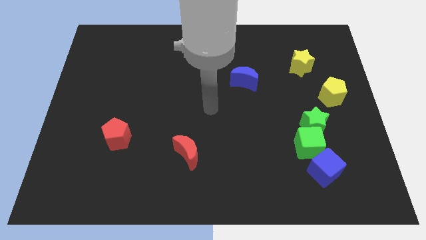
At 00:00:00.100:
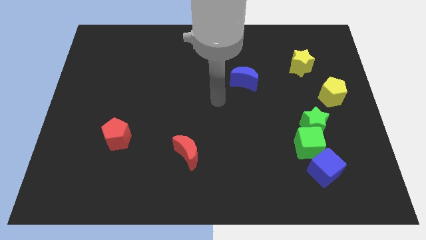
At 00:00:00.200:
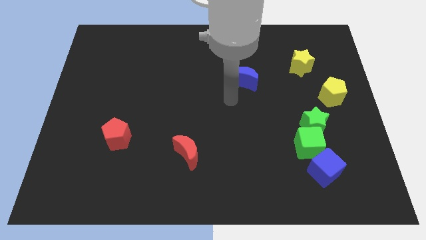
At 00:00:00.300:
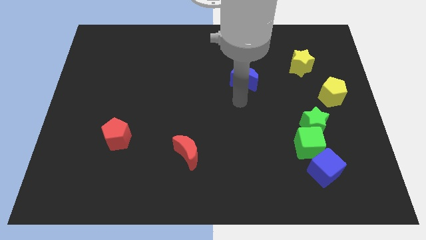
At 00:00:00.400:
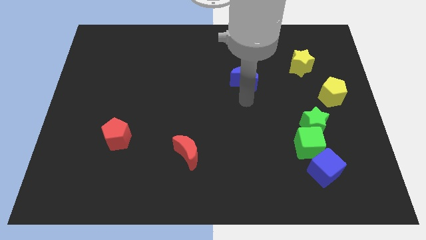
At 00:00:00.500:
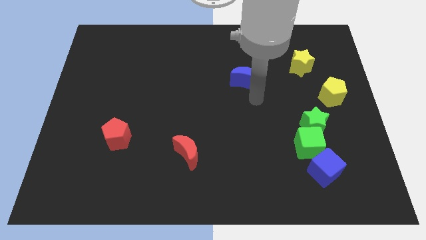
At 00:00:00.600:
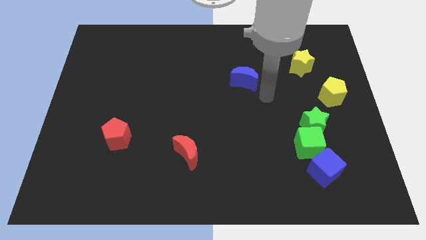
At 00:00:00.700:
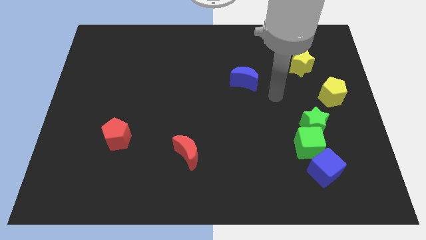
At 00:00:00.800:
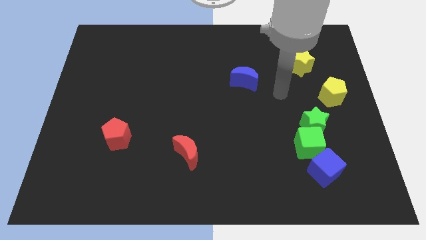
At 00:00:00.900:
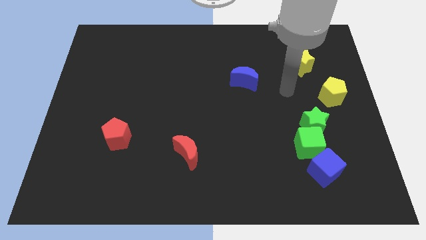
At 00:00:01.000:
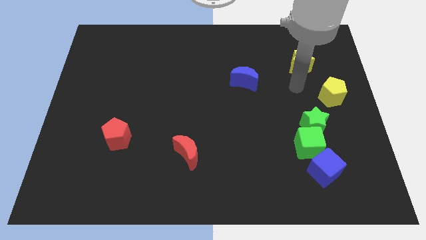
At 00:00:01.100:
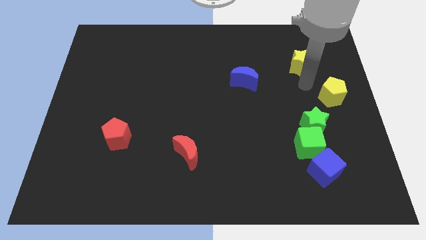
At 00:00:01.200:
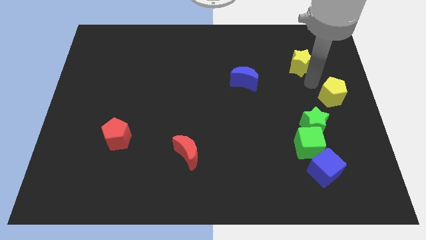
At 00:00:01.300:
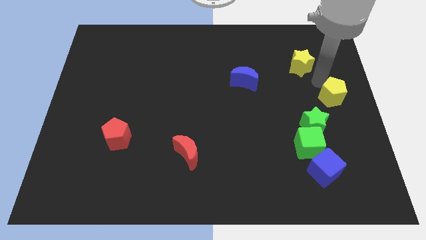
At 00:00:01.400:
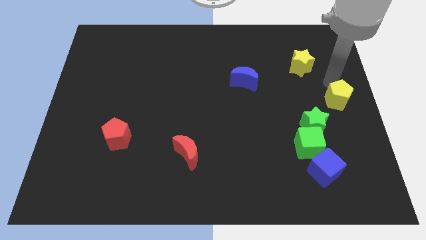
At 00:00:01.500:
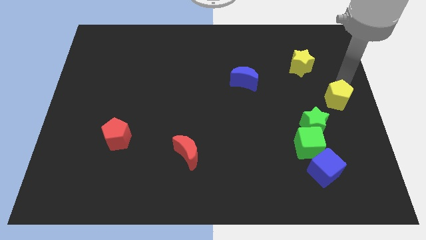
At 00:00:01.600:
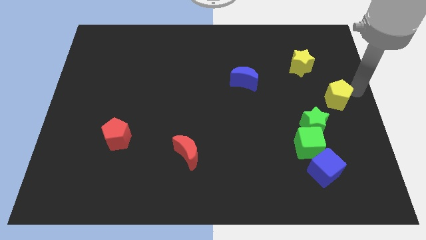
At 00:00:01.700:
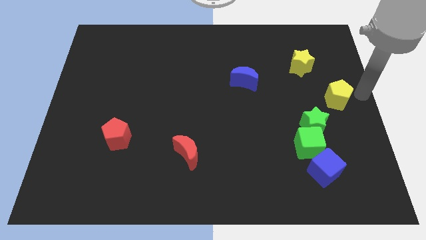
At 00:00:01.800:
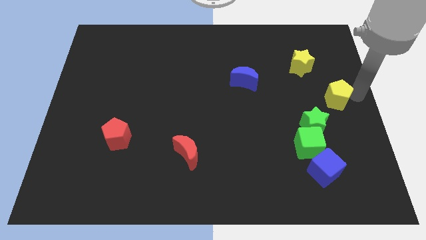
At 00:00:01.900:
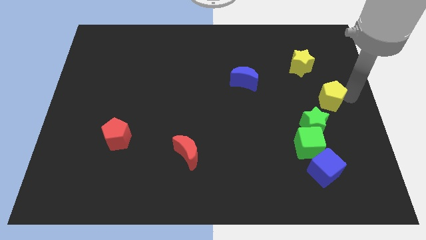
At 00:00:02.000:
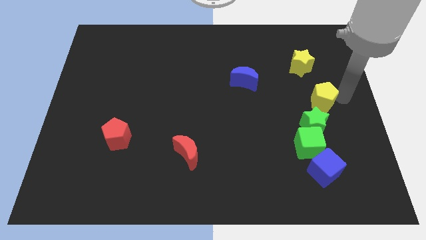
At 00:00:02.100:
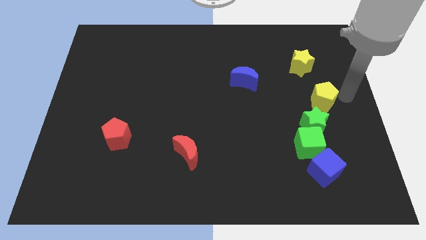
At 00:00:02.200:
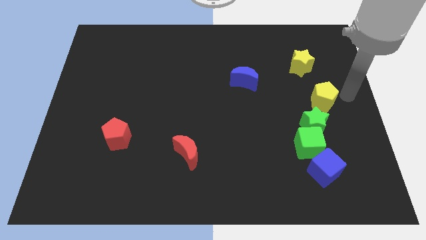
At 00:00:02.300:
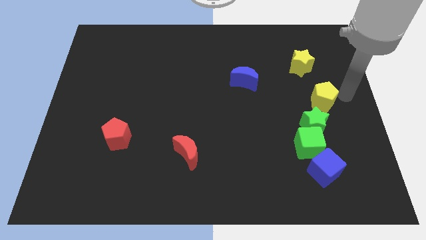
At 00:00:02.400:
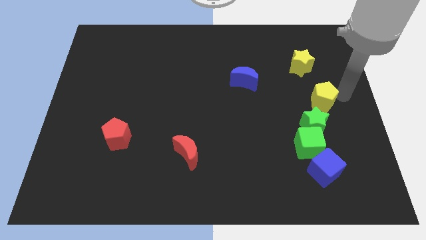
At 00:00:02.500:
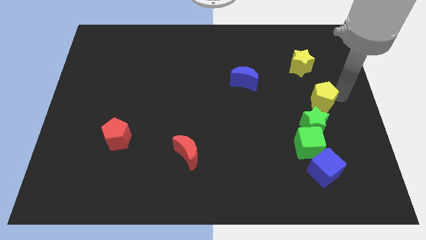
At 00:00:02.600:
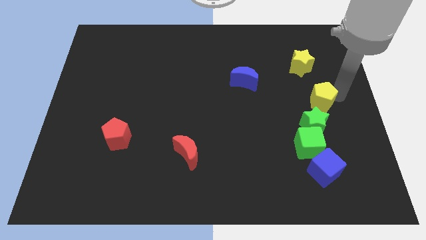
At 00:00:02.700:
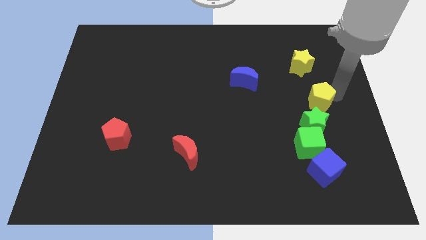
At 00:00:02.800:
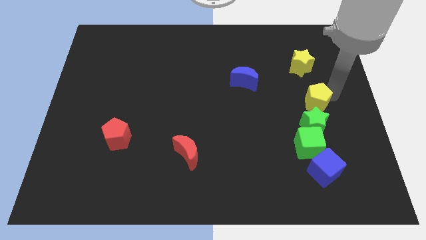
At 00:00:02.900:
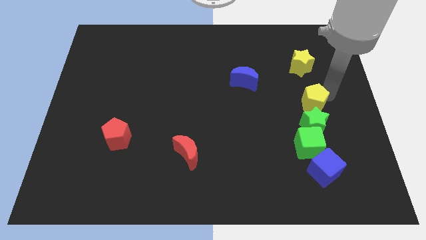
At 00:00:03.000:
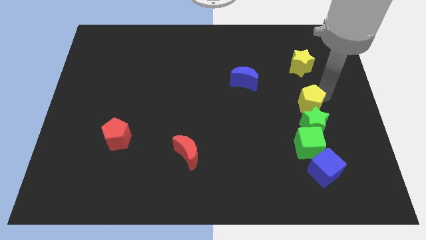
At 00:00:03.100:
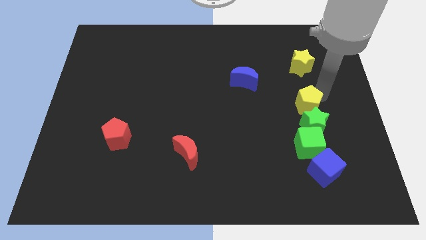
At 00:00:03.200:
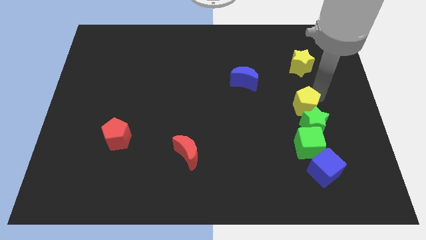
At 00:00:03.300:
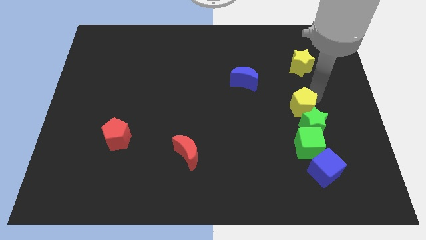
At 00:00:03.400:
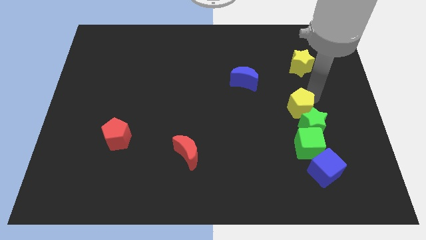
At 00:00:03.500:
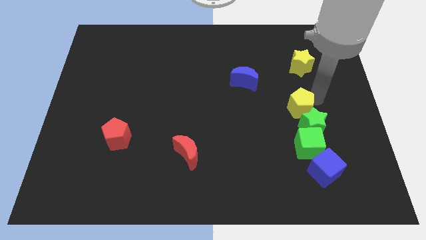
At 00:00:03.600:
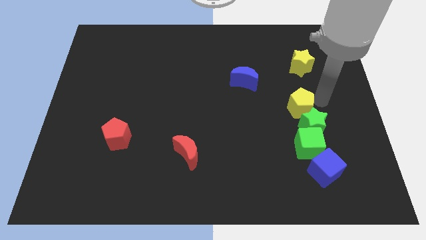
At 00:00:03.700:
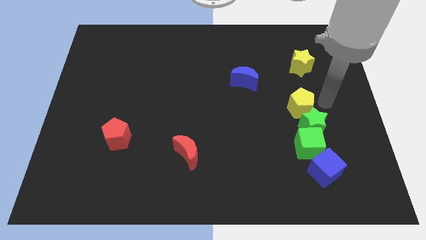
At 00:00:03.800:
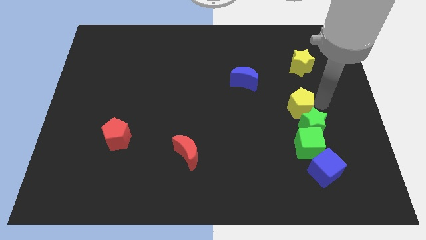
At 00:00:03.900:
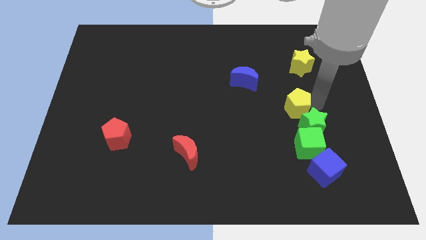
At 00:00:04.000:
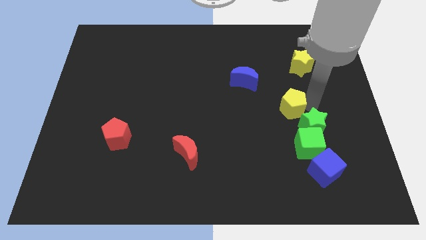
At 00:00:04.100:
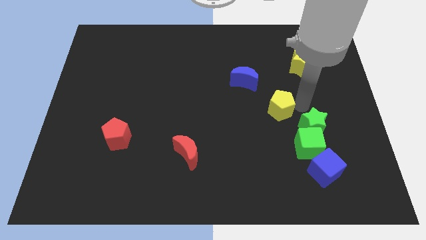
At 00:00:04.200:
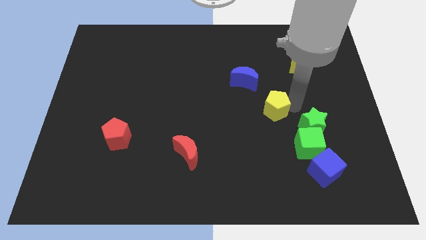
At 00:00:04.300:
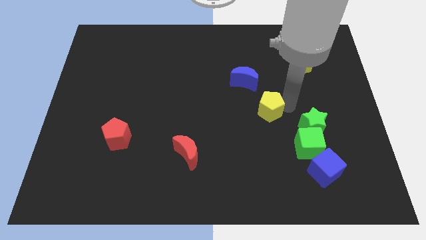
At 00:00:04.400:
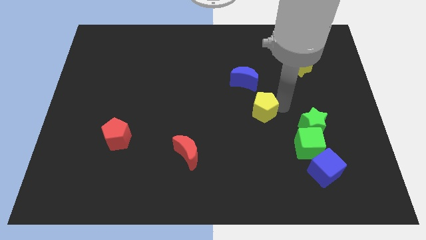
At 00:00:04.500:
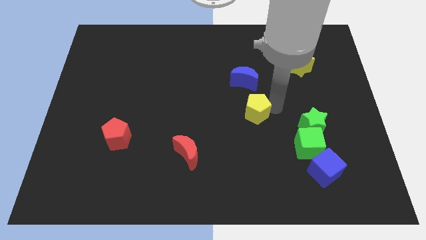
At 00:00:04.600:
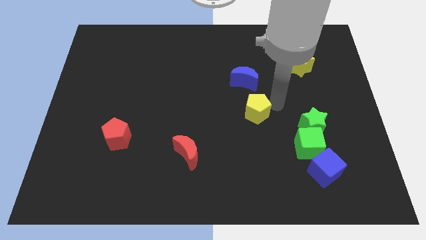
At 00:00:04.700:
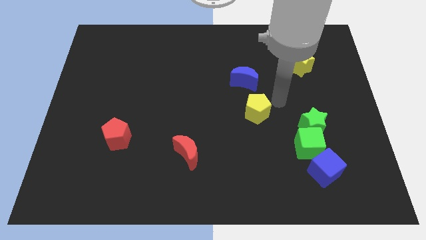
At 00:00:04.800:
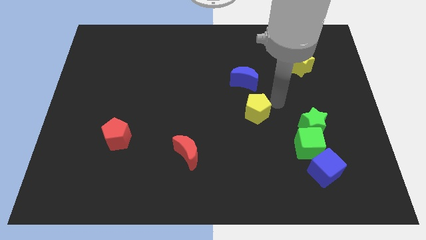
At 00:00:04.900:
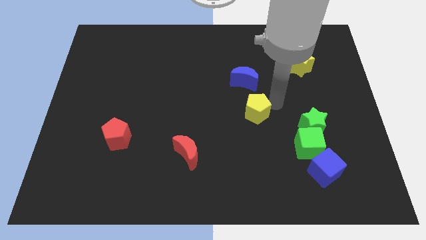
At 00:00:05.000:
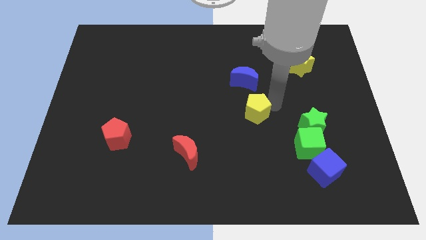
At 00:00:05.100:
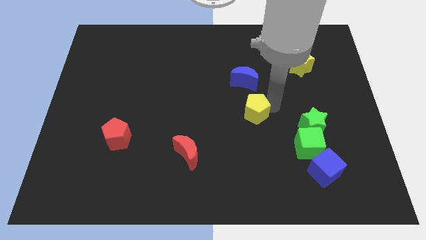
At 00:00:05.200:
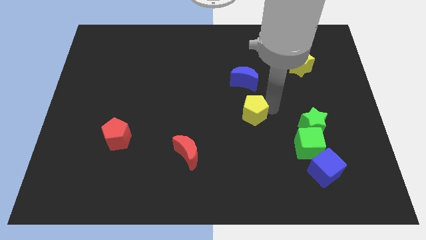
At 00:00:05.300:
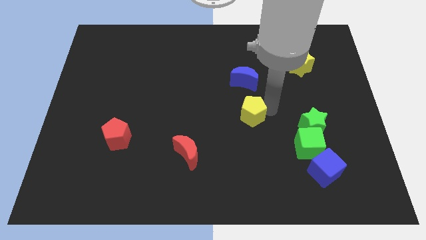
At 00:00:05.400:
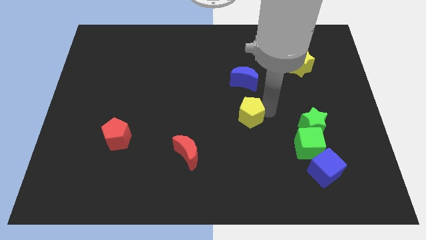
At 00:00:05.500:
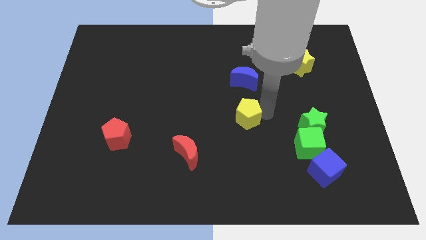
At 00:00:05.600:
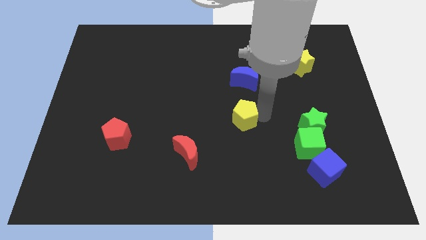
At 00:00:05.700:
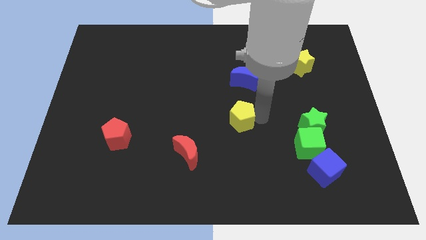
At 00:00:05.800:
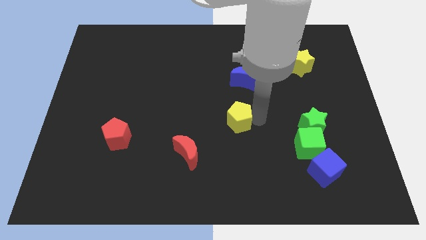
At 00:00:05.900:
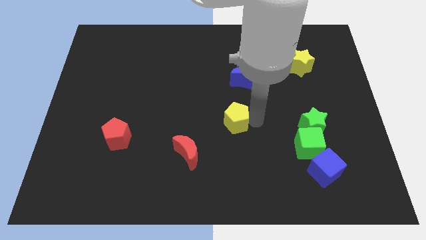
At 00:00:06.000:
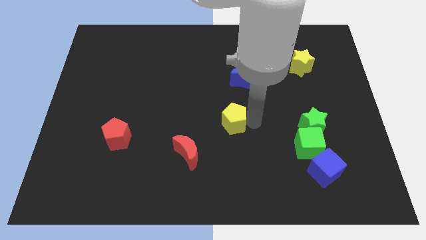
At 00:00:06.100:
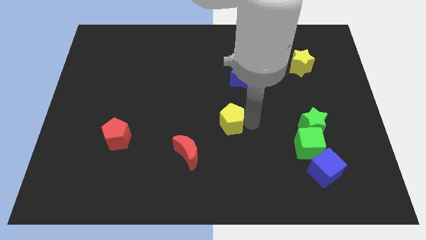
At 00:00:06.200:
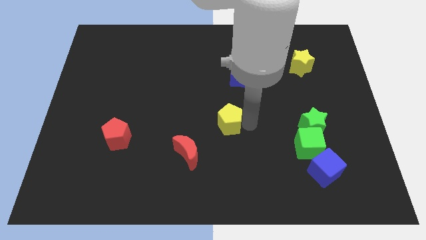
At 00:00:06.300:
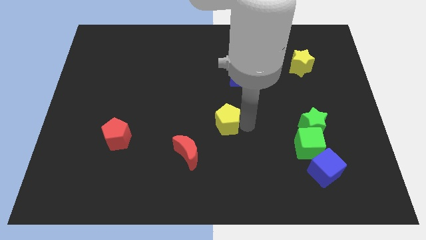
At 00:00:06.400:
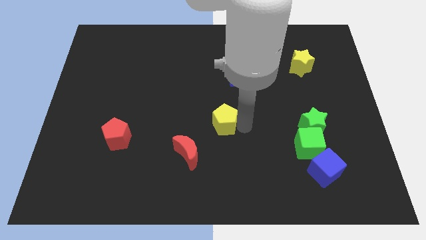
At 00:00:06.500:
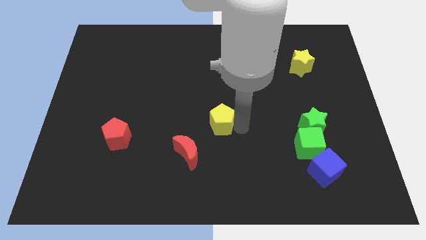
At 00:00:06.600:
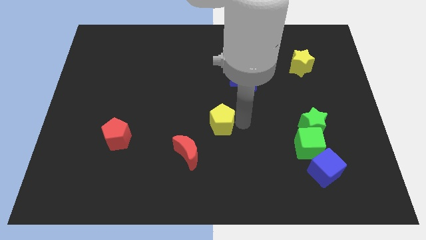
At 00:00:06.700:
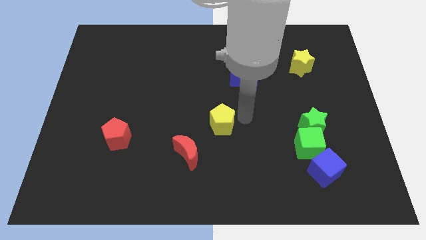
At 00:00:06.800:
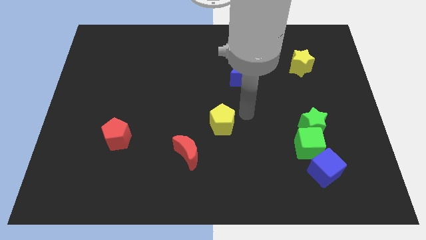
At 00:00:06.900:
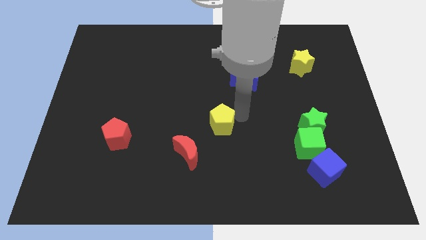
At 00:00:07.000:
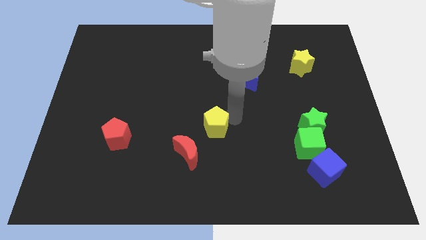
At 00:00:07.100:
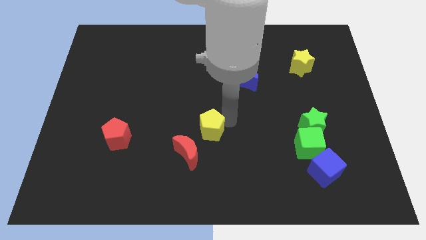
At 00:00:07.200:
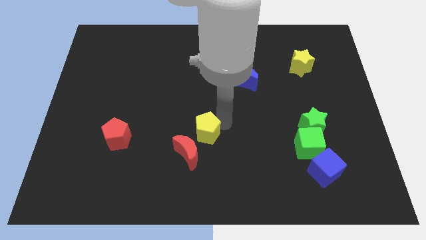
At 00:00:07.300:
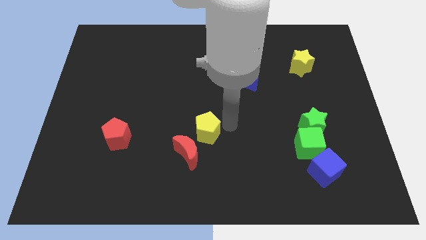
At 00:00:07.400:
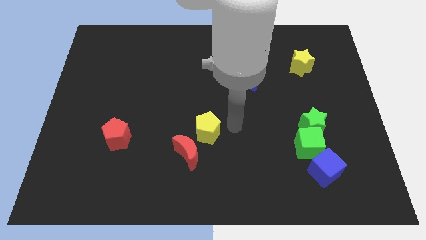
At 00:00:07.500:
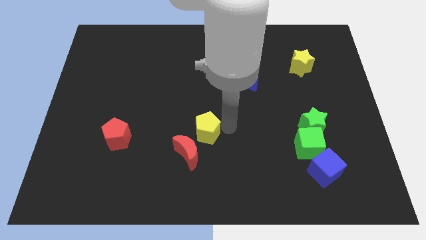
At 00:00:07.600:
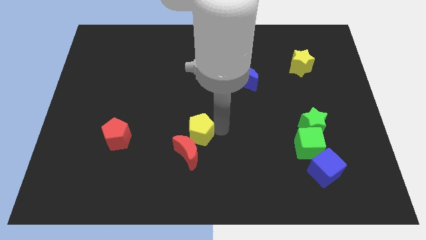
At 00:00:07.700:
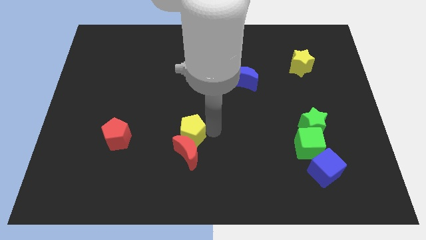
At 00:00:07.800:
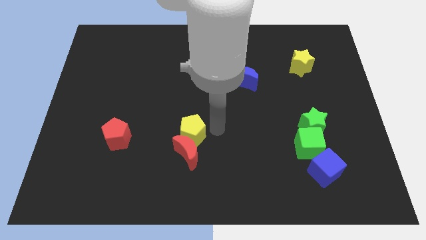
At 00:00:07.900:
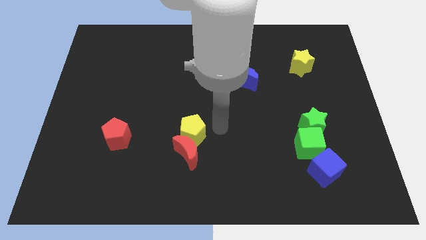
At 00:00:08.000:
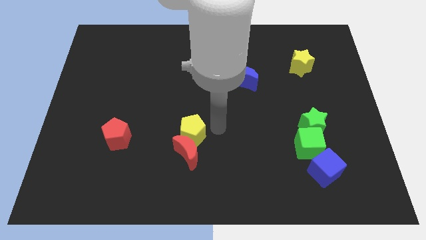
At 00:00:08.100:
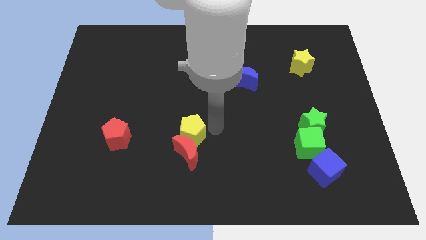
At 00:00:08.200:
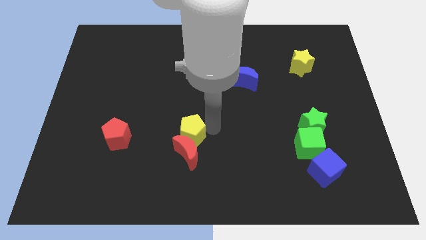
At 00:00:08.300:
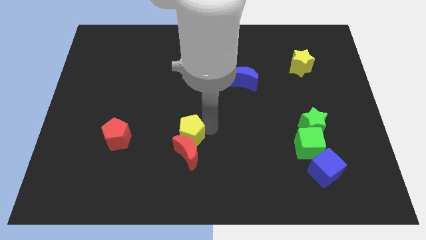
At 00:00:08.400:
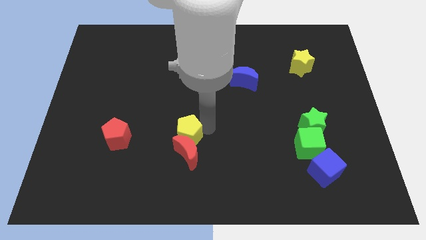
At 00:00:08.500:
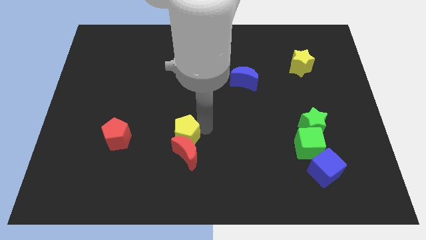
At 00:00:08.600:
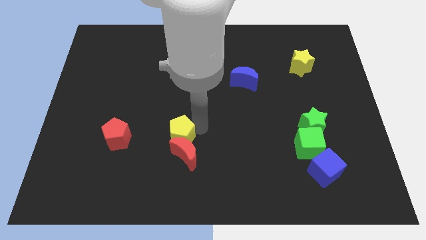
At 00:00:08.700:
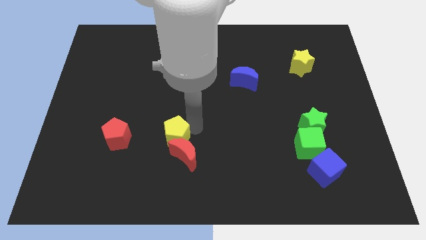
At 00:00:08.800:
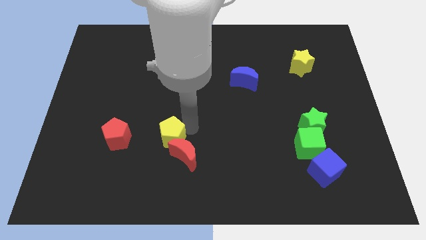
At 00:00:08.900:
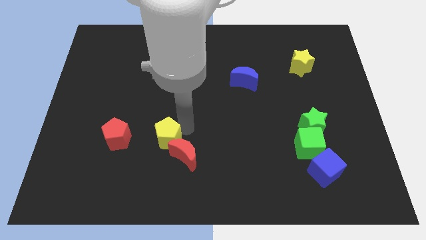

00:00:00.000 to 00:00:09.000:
push the yellow pentagon just left of the red moon
